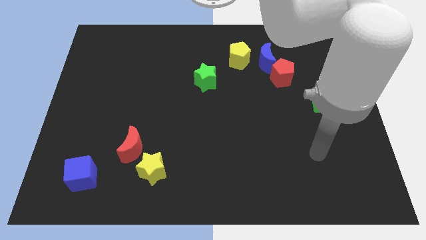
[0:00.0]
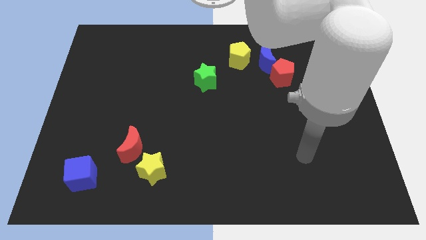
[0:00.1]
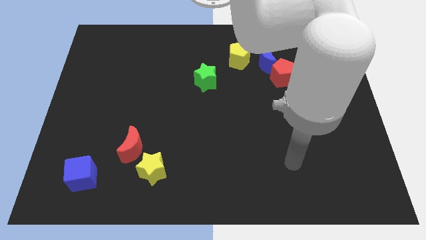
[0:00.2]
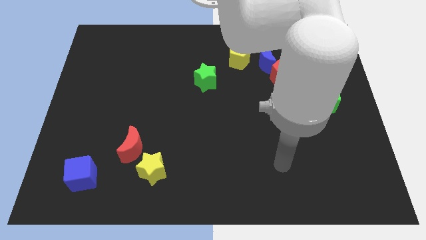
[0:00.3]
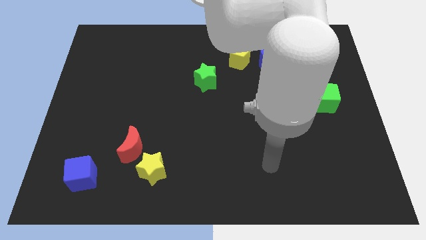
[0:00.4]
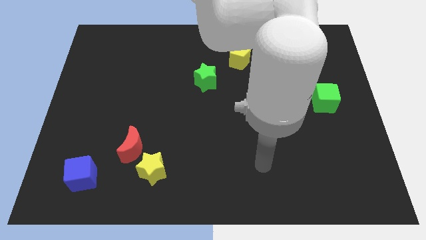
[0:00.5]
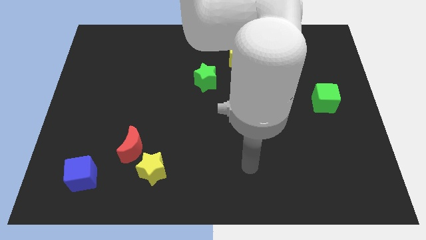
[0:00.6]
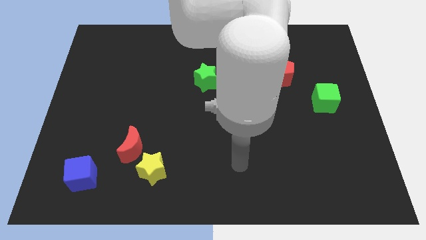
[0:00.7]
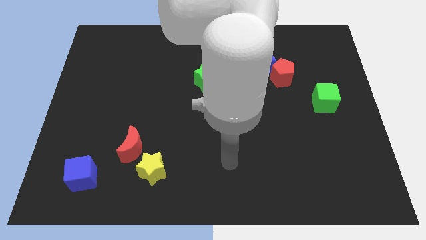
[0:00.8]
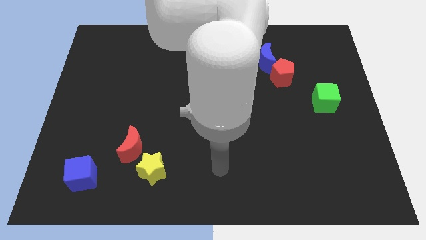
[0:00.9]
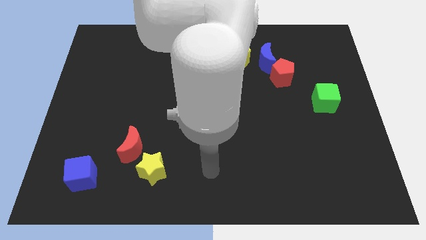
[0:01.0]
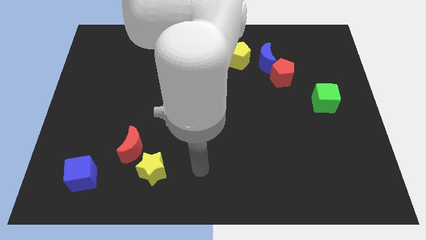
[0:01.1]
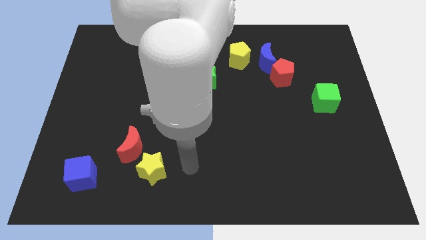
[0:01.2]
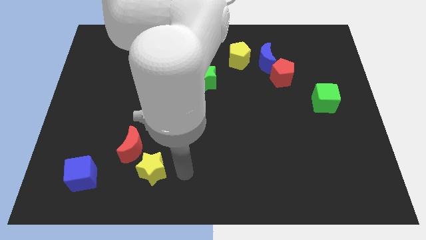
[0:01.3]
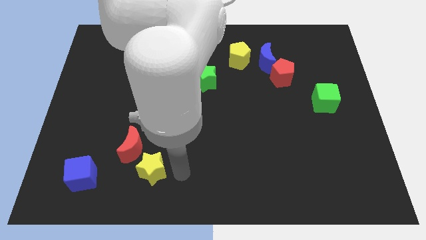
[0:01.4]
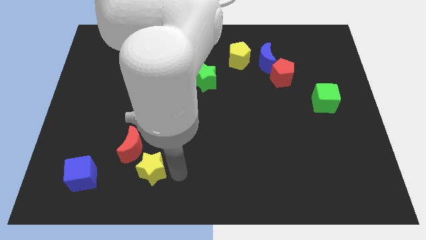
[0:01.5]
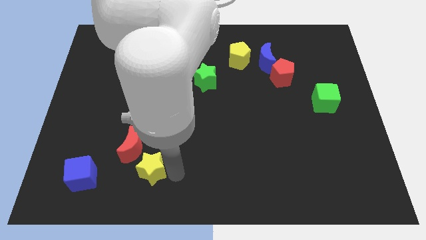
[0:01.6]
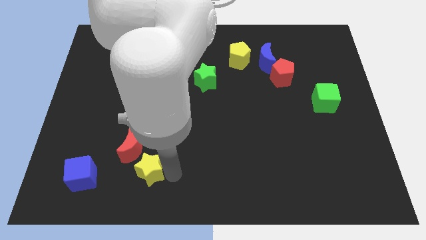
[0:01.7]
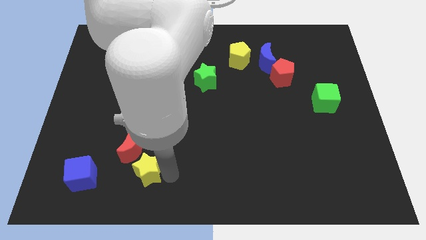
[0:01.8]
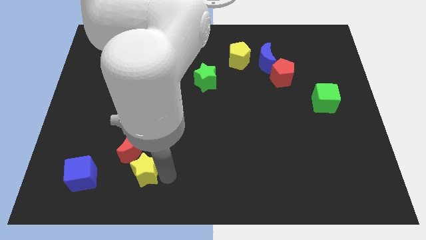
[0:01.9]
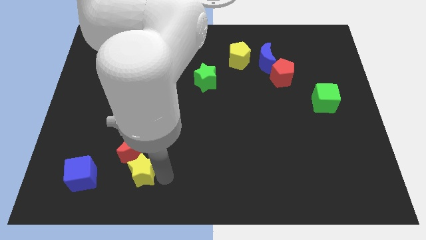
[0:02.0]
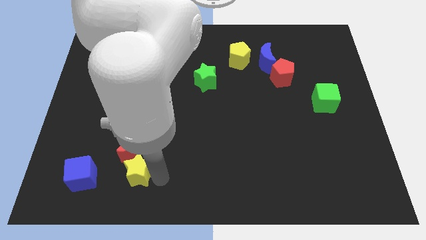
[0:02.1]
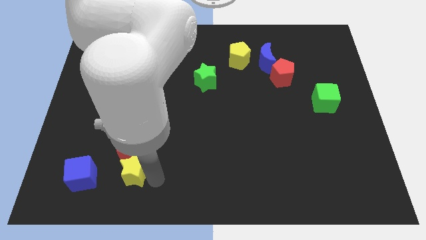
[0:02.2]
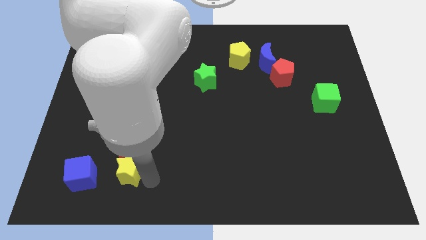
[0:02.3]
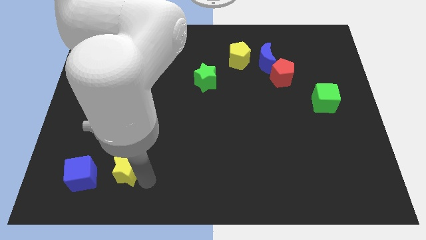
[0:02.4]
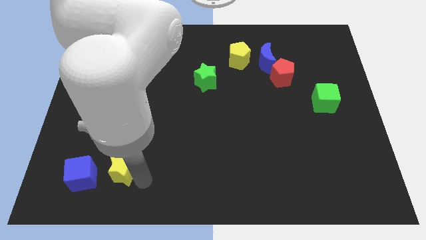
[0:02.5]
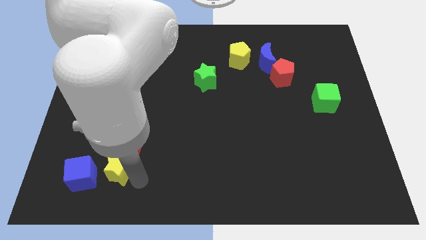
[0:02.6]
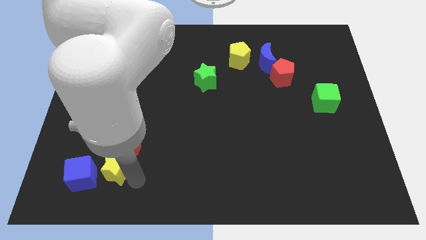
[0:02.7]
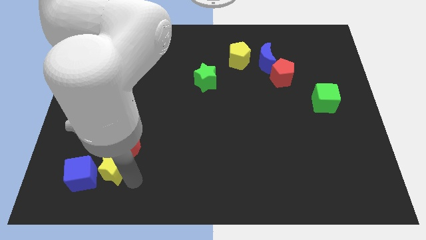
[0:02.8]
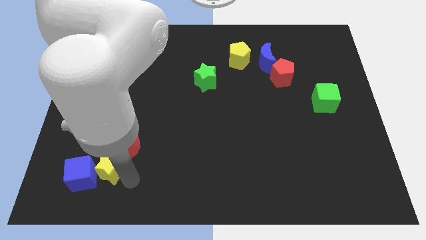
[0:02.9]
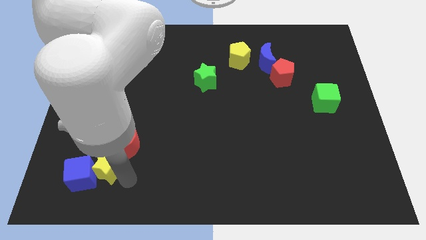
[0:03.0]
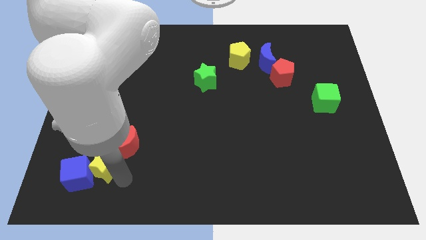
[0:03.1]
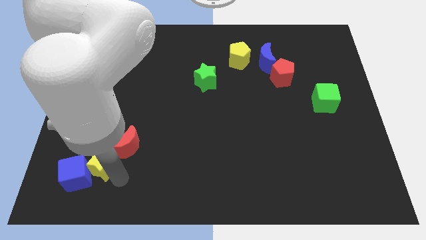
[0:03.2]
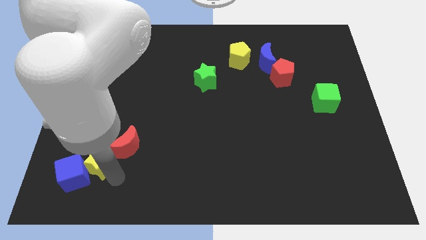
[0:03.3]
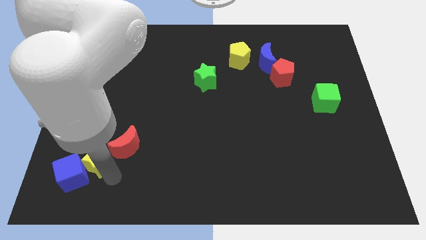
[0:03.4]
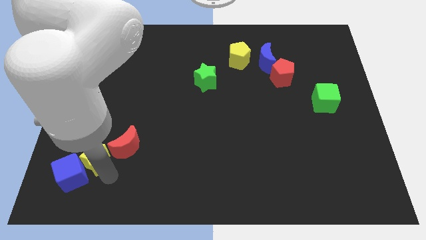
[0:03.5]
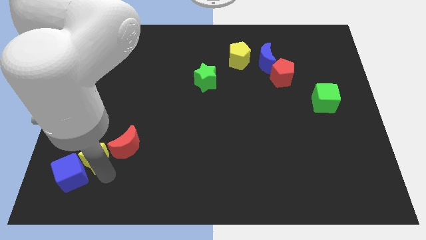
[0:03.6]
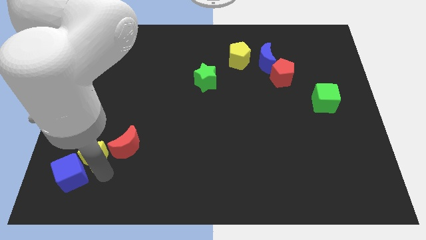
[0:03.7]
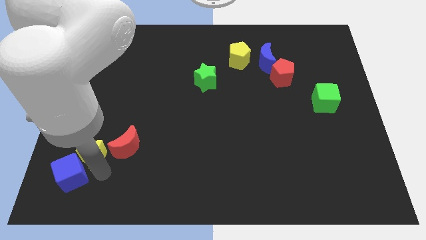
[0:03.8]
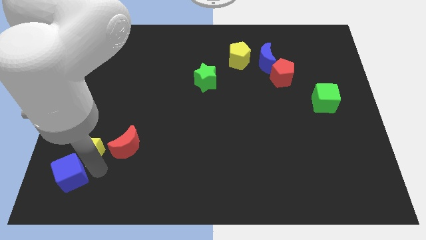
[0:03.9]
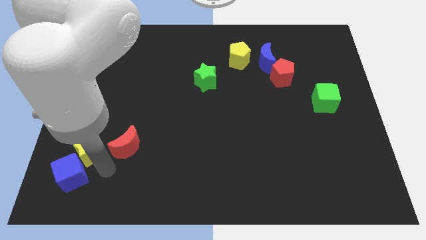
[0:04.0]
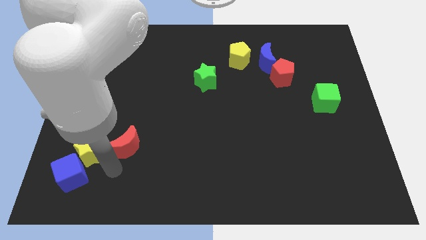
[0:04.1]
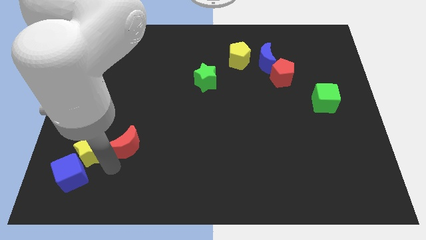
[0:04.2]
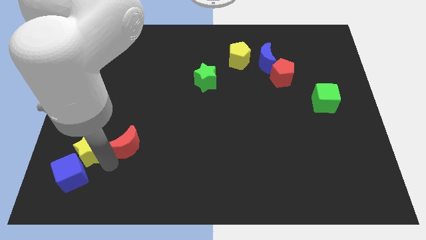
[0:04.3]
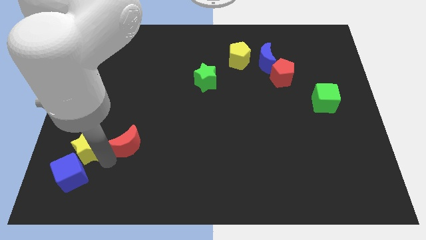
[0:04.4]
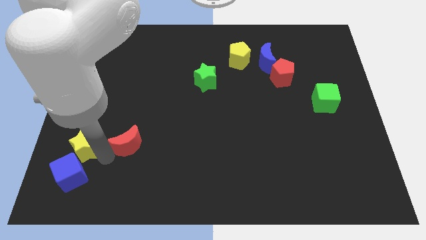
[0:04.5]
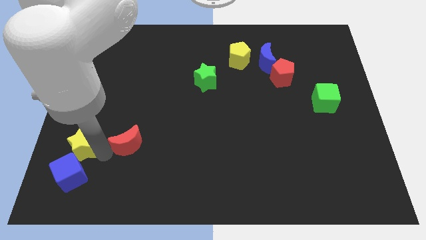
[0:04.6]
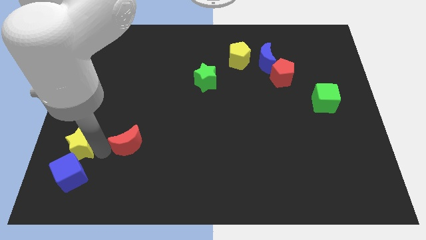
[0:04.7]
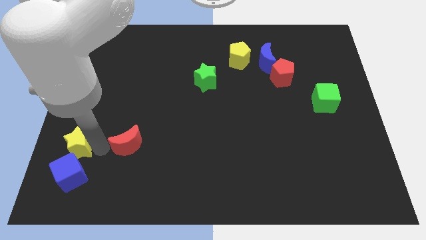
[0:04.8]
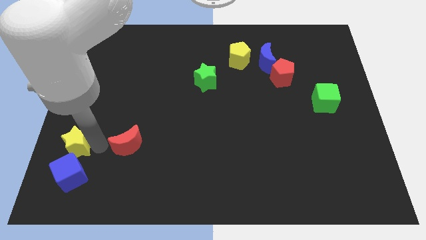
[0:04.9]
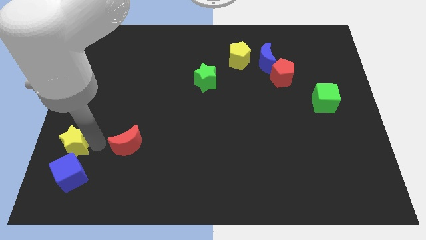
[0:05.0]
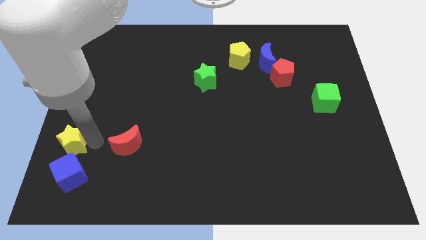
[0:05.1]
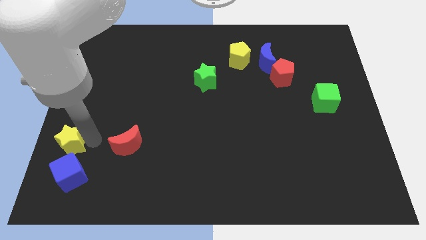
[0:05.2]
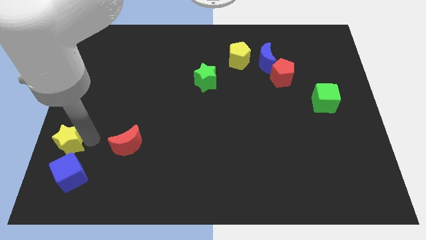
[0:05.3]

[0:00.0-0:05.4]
move the yellow star to the center left

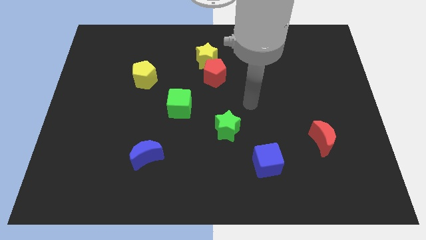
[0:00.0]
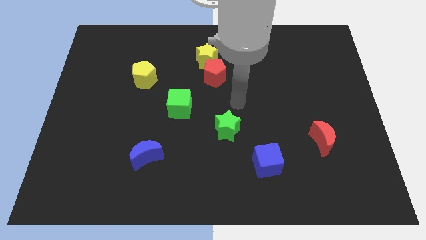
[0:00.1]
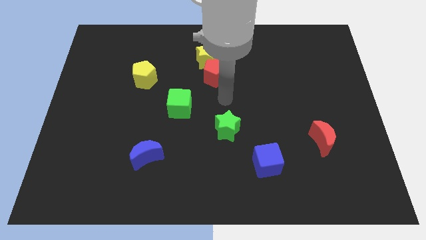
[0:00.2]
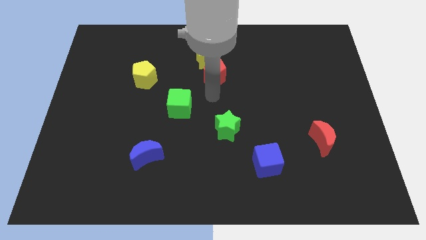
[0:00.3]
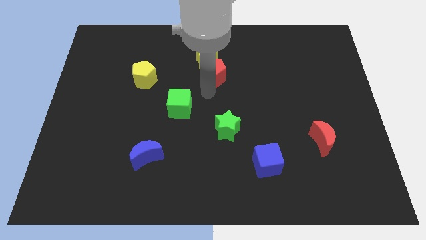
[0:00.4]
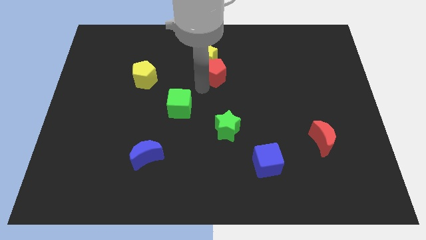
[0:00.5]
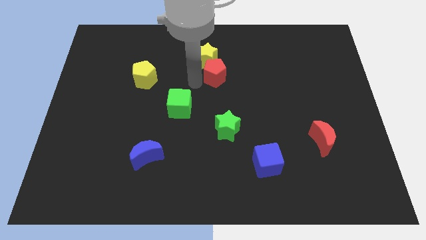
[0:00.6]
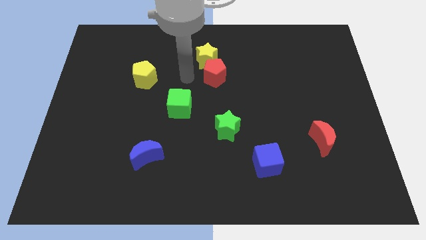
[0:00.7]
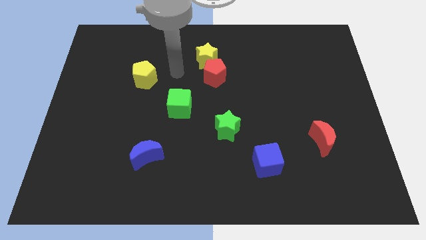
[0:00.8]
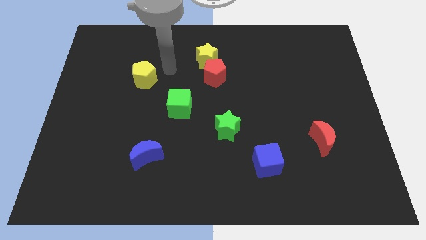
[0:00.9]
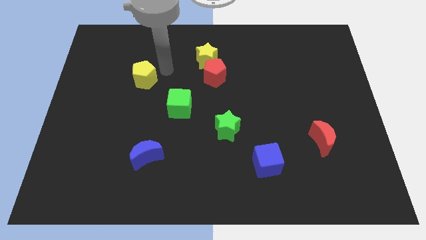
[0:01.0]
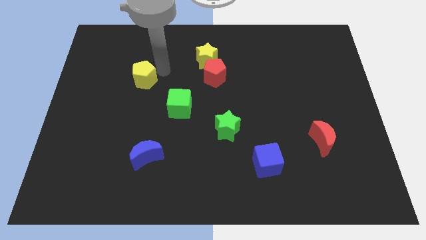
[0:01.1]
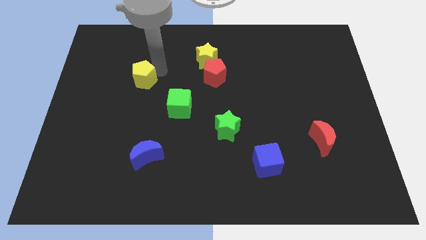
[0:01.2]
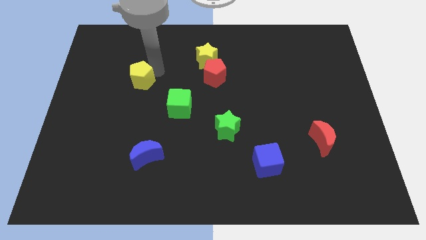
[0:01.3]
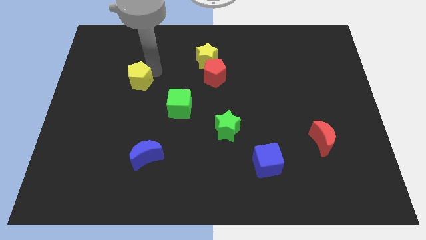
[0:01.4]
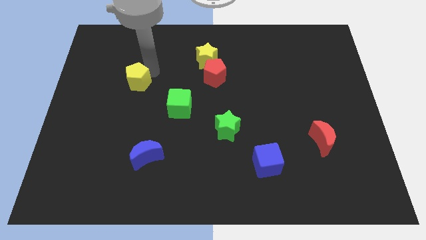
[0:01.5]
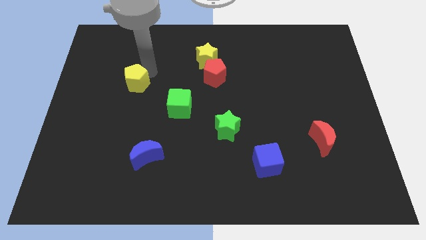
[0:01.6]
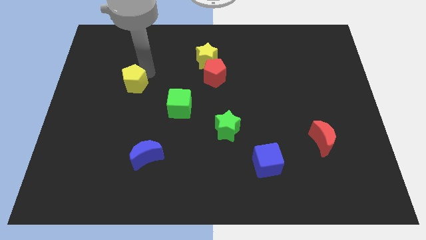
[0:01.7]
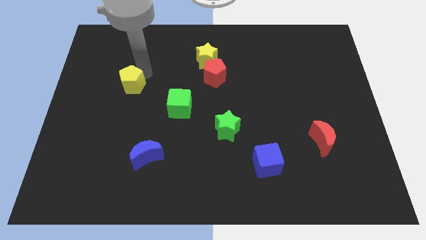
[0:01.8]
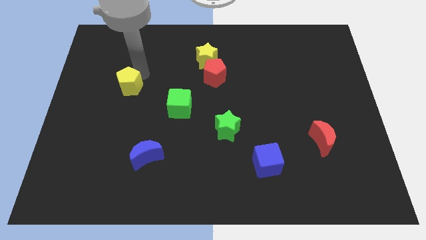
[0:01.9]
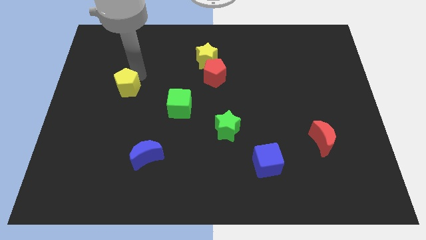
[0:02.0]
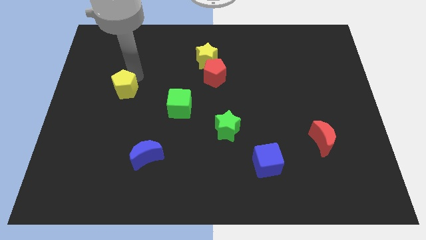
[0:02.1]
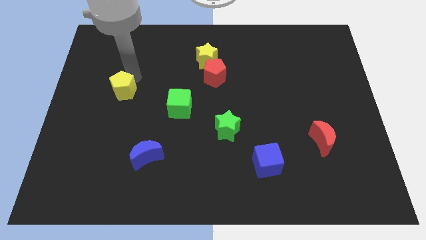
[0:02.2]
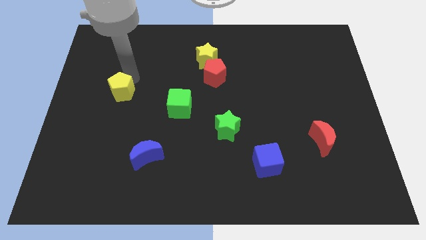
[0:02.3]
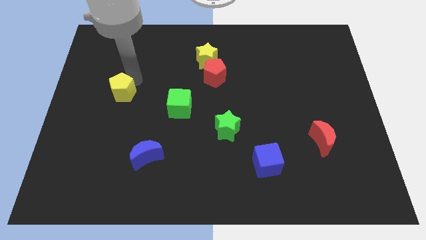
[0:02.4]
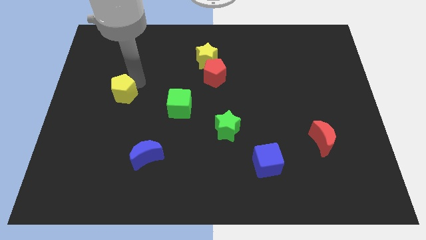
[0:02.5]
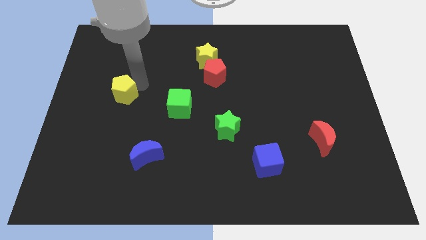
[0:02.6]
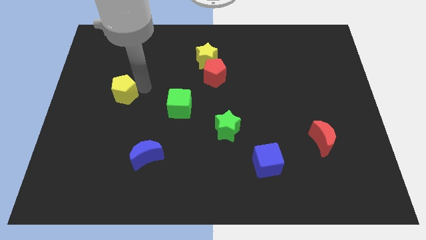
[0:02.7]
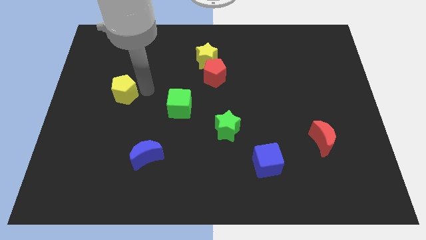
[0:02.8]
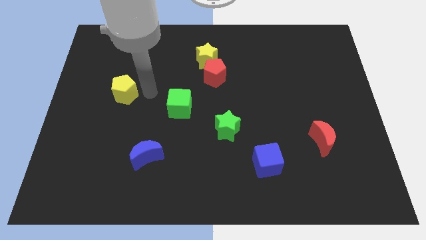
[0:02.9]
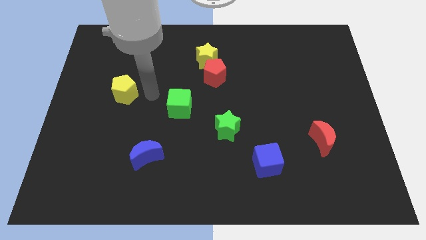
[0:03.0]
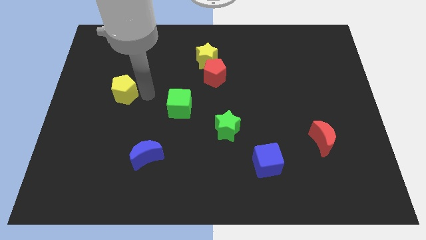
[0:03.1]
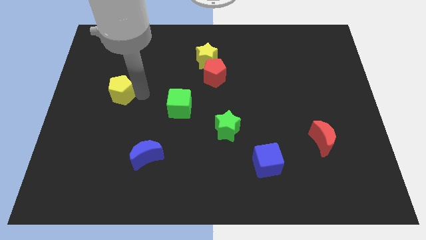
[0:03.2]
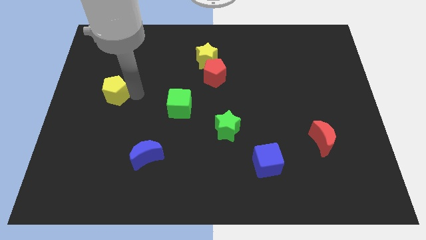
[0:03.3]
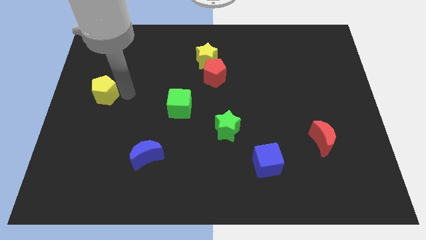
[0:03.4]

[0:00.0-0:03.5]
move the yellow pentagon to the left side of the board
